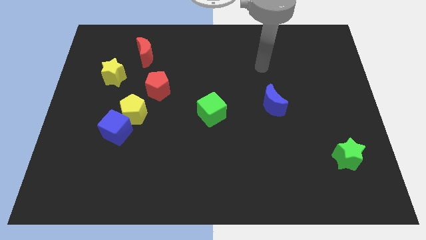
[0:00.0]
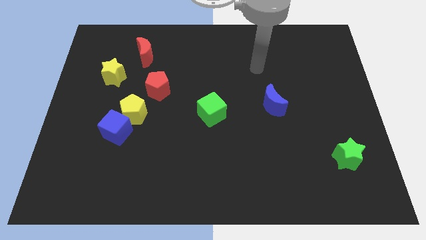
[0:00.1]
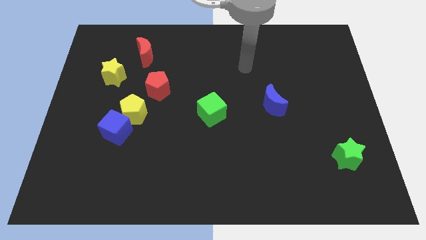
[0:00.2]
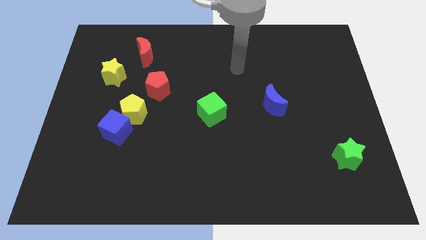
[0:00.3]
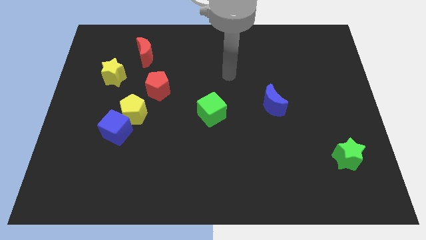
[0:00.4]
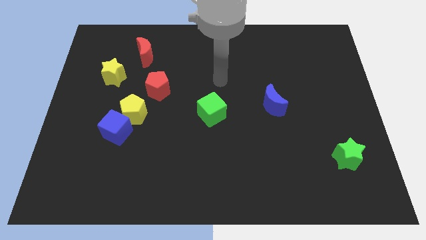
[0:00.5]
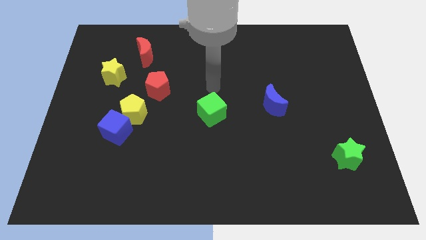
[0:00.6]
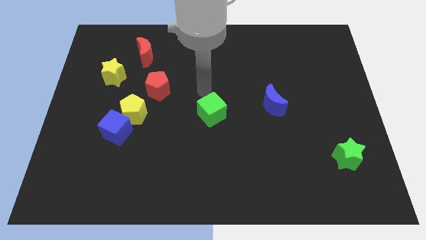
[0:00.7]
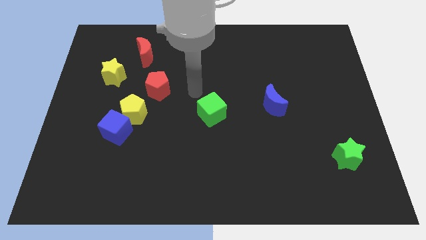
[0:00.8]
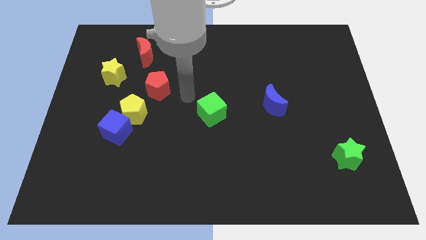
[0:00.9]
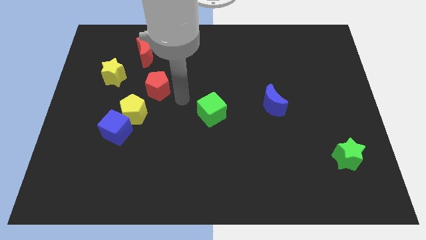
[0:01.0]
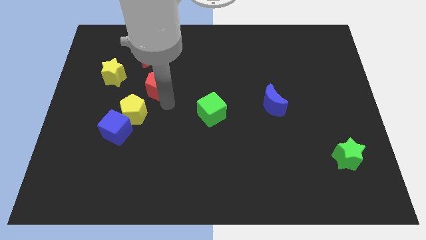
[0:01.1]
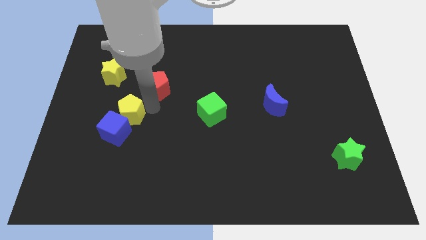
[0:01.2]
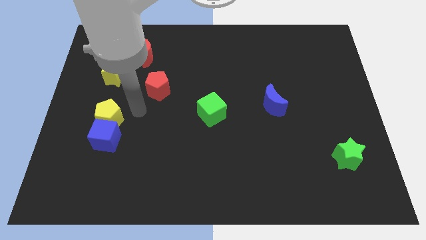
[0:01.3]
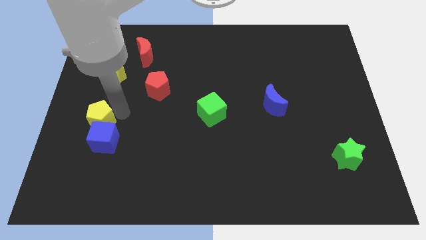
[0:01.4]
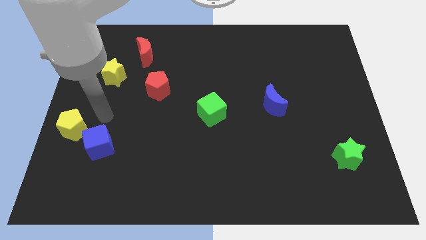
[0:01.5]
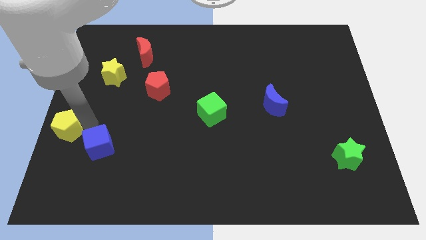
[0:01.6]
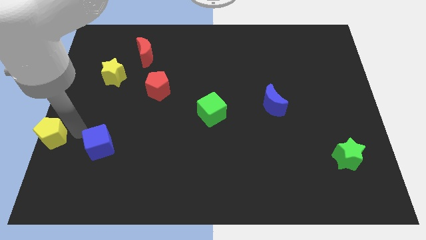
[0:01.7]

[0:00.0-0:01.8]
move the blue cube away from the yellow pentagon

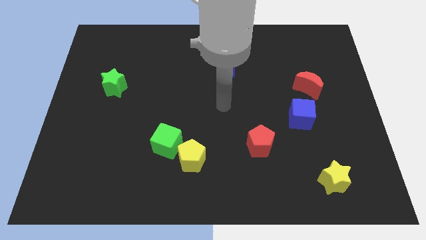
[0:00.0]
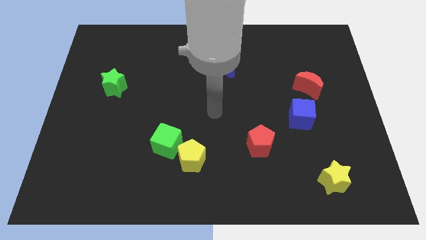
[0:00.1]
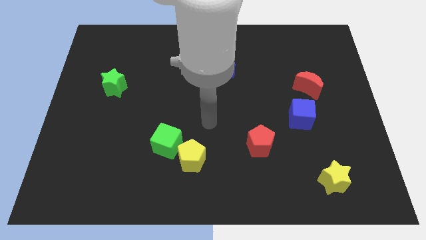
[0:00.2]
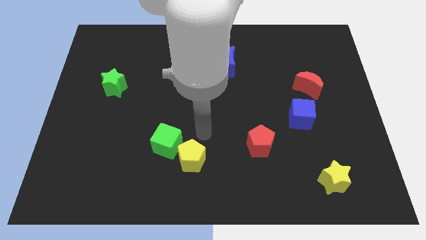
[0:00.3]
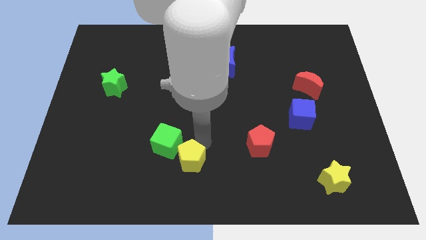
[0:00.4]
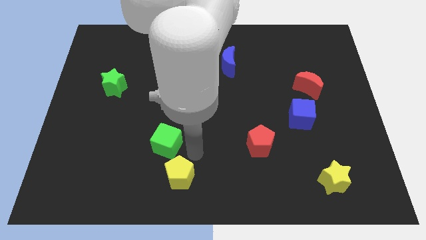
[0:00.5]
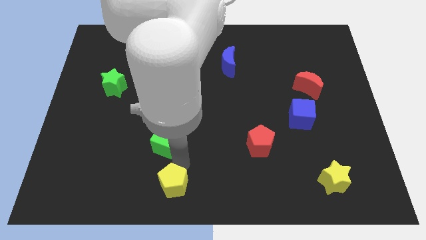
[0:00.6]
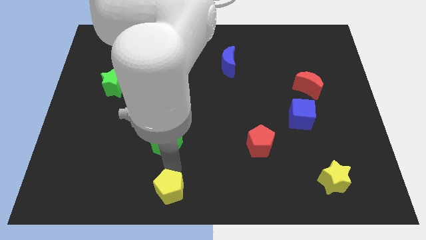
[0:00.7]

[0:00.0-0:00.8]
move the green cube away from the yellow pentagon

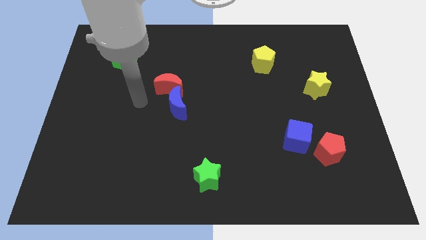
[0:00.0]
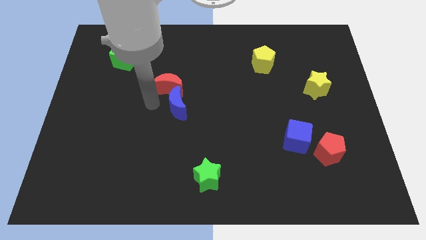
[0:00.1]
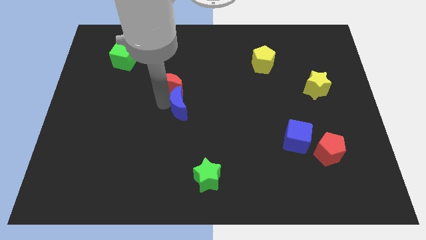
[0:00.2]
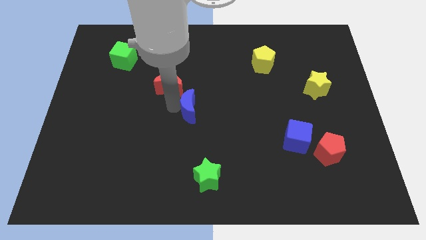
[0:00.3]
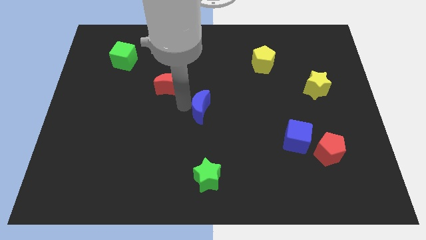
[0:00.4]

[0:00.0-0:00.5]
separate the red moon from the blue moon

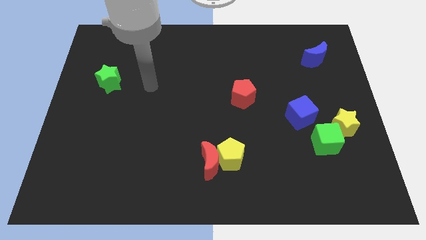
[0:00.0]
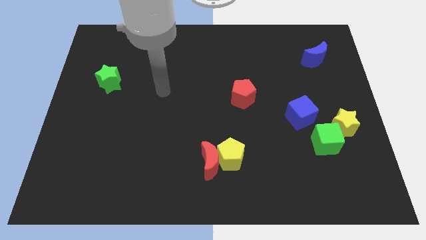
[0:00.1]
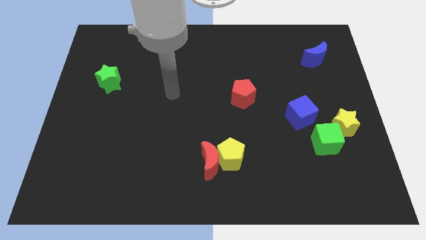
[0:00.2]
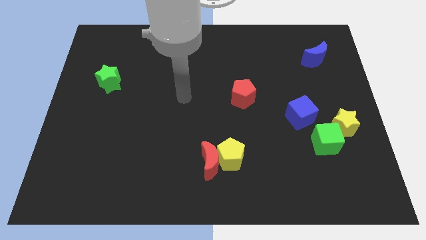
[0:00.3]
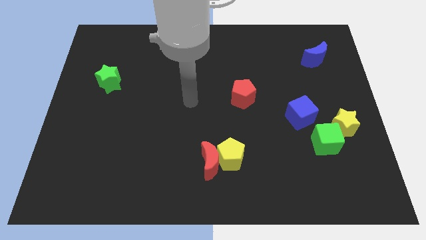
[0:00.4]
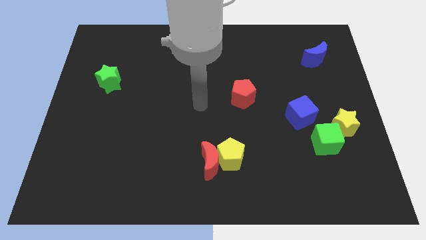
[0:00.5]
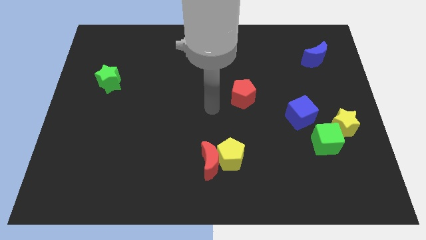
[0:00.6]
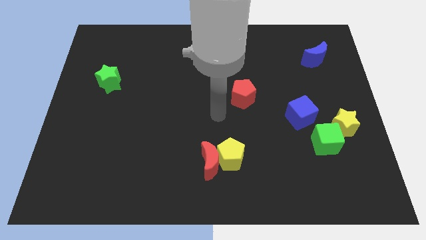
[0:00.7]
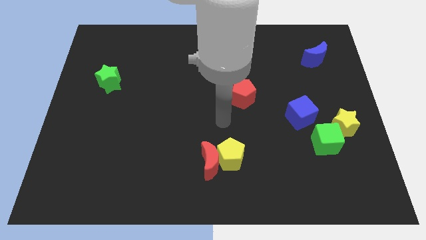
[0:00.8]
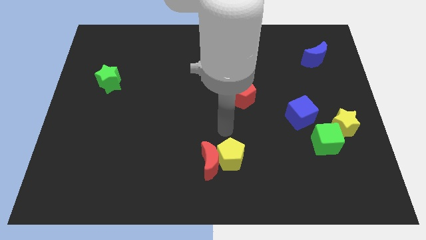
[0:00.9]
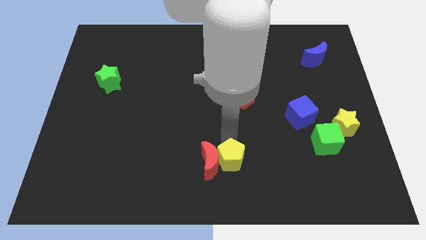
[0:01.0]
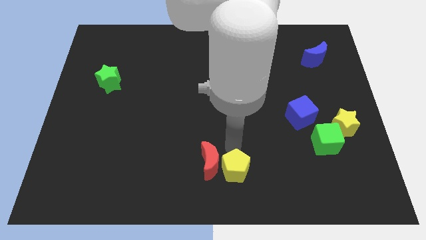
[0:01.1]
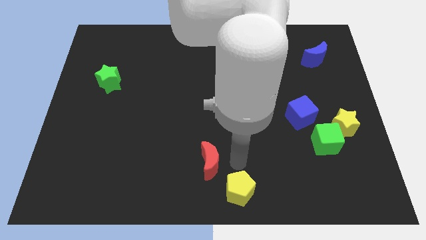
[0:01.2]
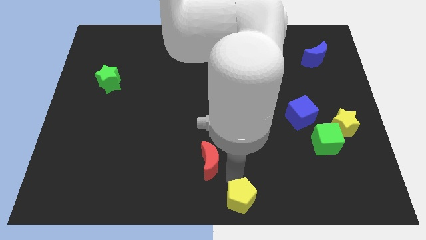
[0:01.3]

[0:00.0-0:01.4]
pull the red moon apart from the yellow pentagon

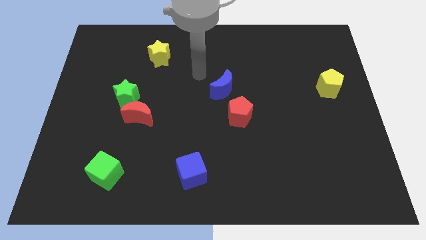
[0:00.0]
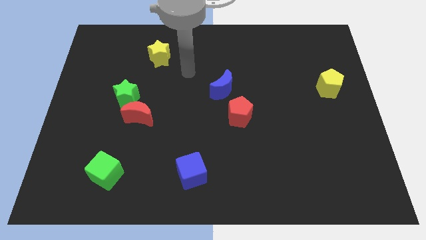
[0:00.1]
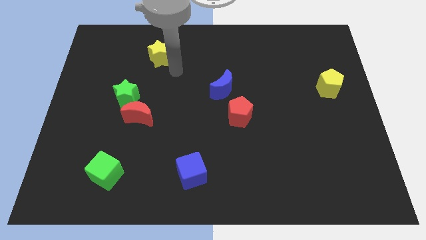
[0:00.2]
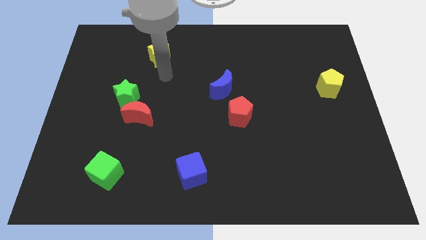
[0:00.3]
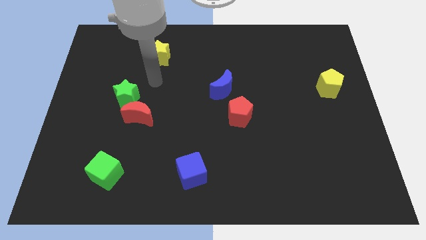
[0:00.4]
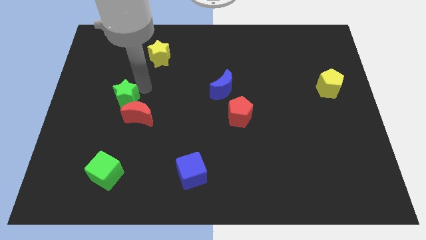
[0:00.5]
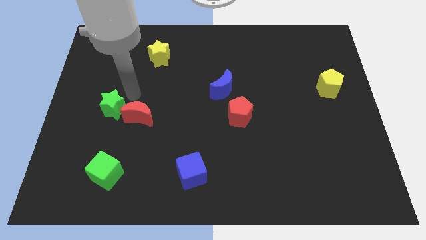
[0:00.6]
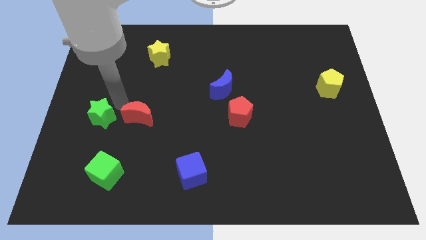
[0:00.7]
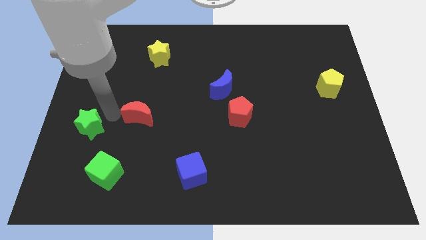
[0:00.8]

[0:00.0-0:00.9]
move the red moon away from the green star

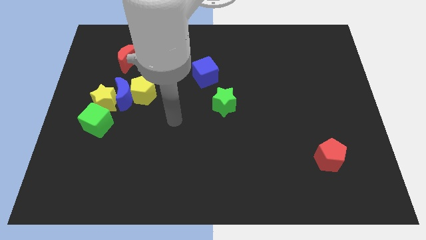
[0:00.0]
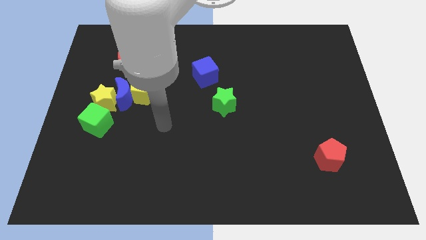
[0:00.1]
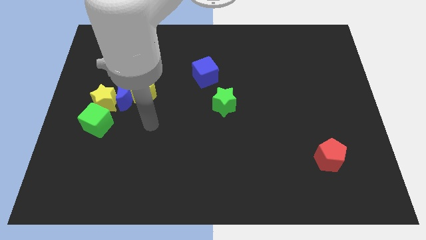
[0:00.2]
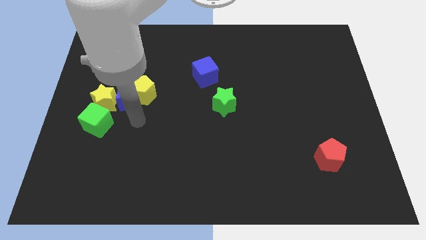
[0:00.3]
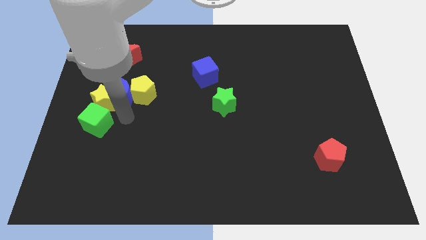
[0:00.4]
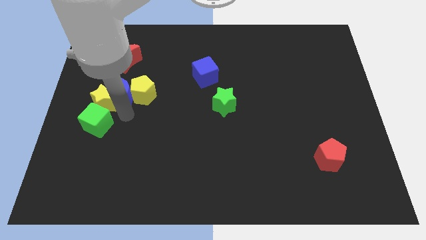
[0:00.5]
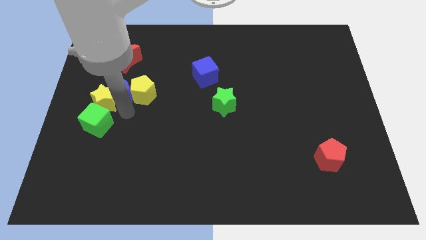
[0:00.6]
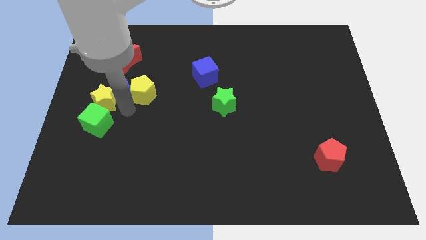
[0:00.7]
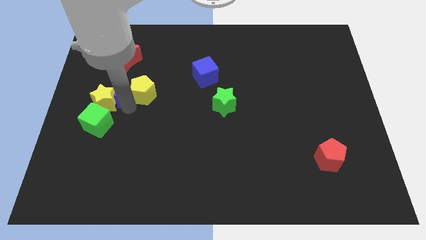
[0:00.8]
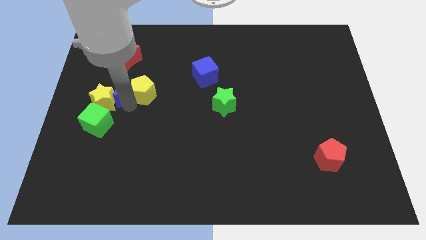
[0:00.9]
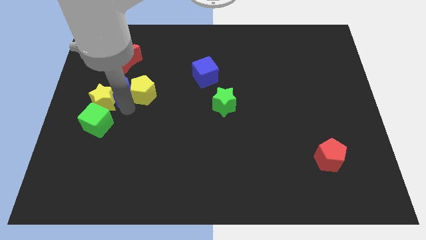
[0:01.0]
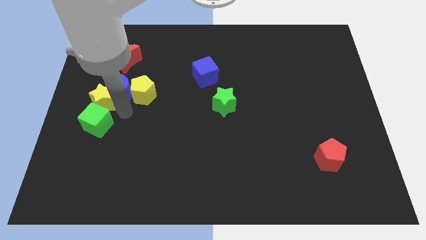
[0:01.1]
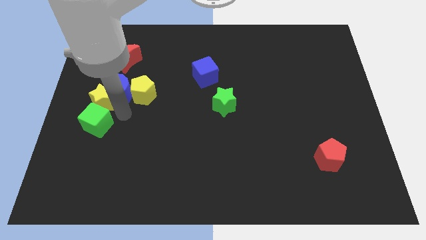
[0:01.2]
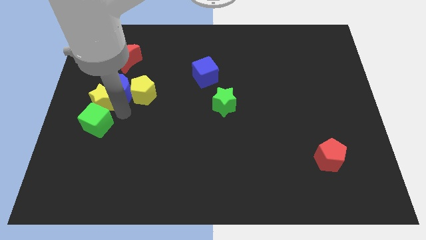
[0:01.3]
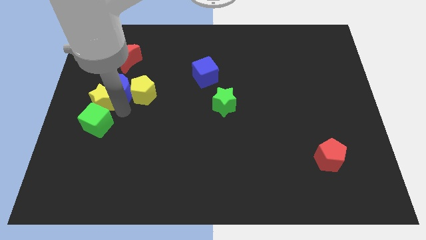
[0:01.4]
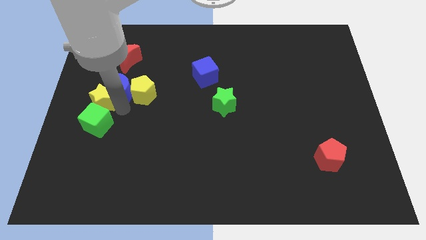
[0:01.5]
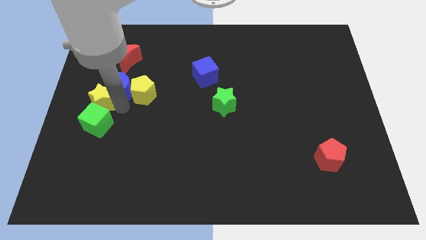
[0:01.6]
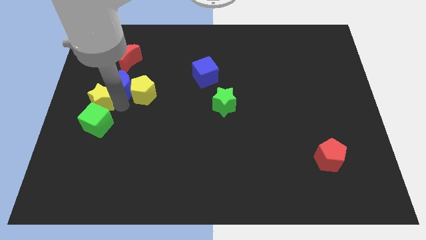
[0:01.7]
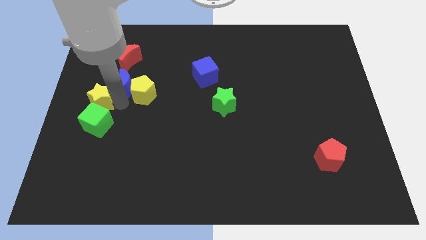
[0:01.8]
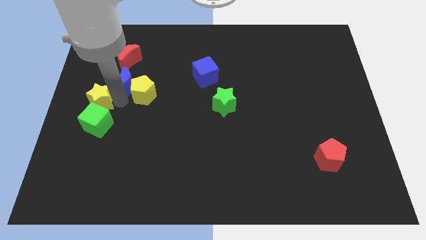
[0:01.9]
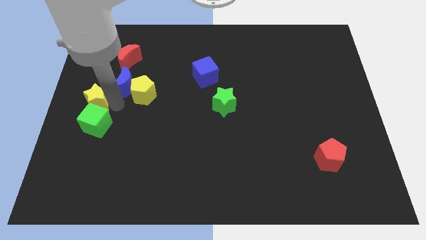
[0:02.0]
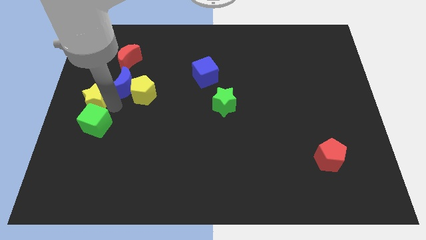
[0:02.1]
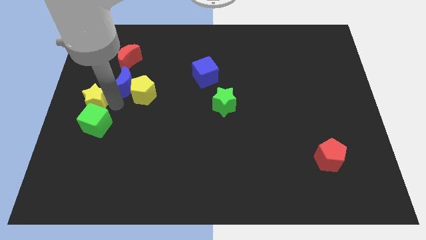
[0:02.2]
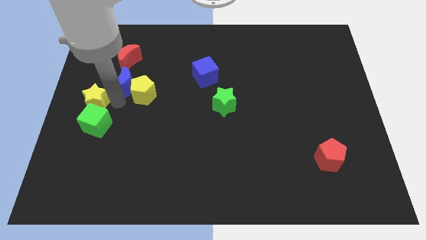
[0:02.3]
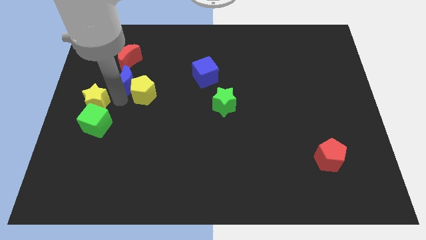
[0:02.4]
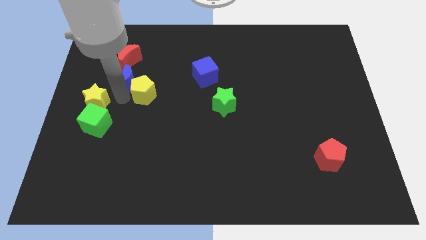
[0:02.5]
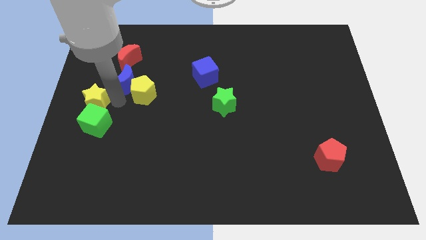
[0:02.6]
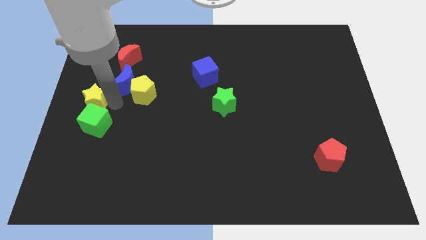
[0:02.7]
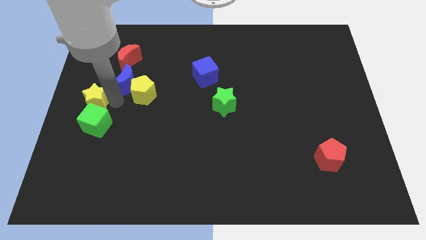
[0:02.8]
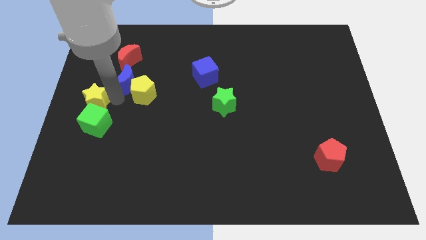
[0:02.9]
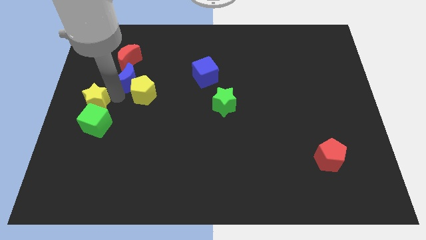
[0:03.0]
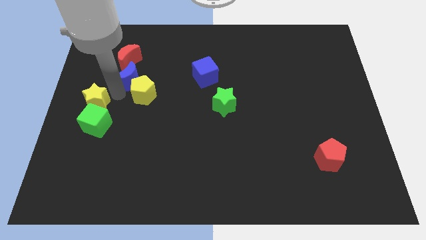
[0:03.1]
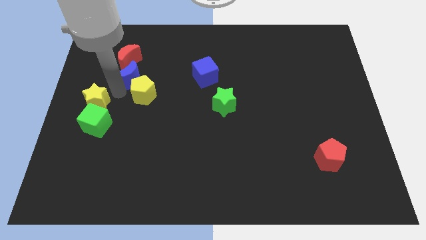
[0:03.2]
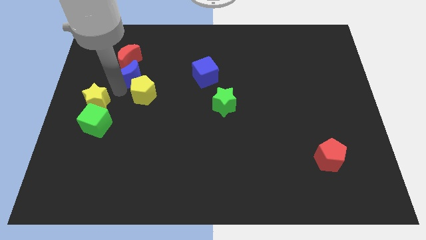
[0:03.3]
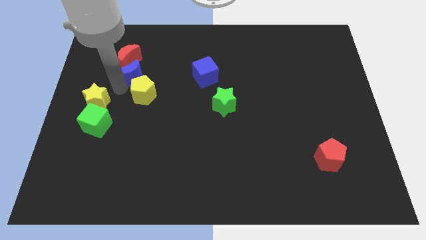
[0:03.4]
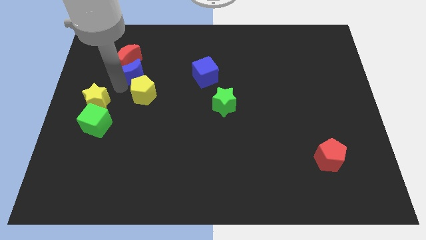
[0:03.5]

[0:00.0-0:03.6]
separate the blue moon from the yellow star, yellow pentagon, and green cube

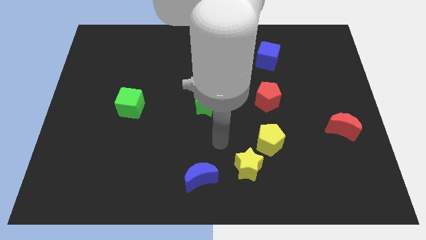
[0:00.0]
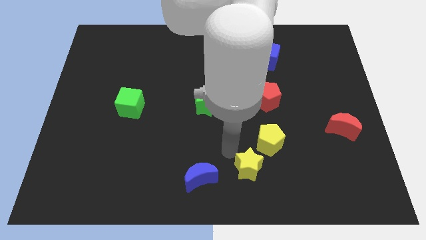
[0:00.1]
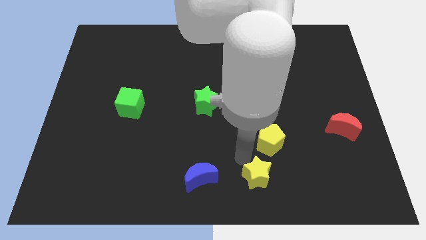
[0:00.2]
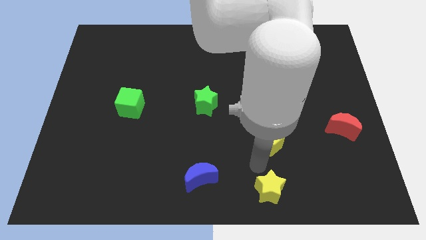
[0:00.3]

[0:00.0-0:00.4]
move the yellow pentagon away from the yellow star
